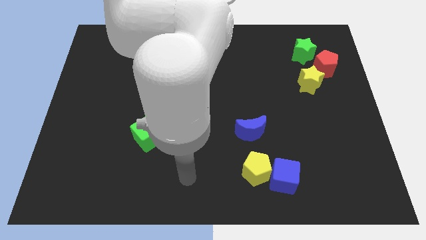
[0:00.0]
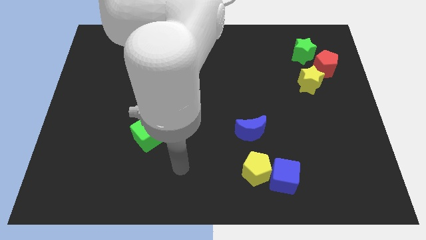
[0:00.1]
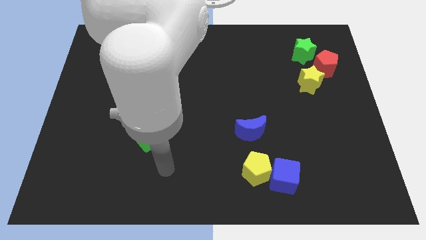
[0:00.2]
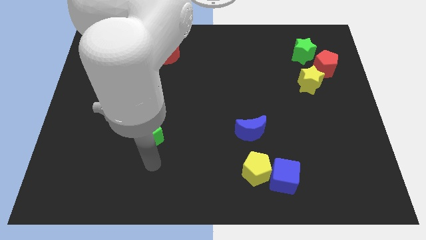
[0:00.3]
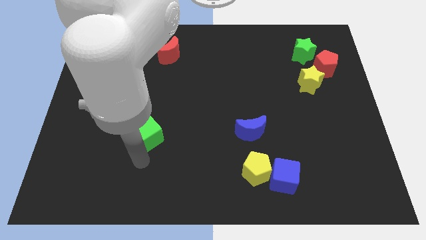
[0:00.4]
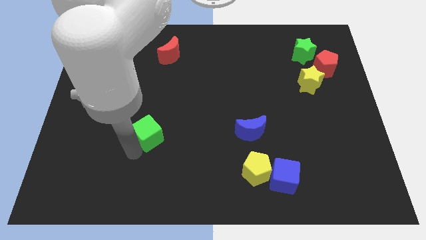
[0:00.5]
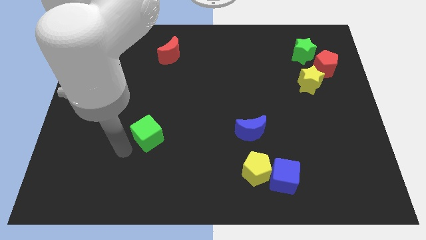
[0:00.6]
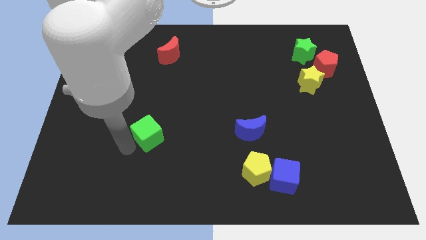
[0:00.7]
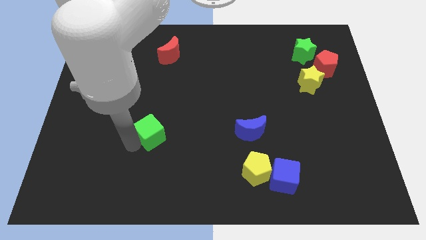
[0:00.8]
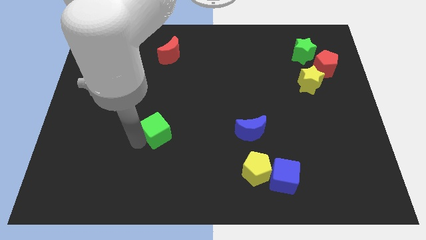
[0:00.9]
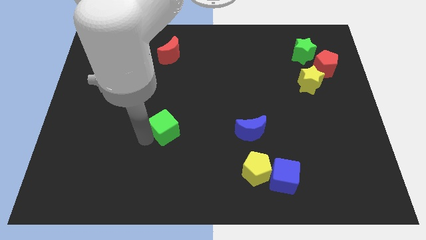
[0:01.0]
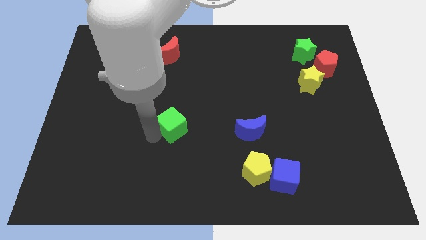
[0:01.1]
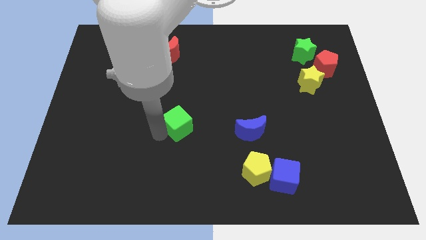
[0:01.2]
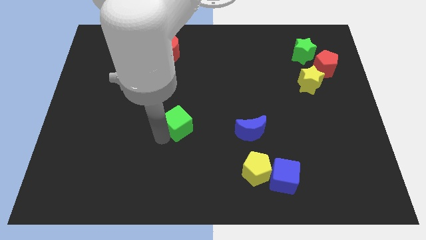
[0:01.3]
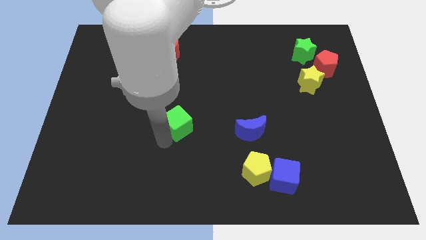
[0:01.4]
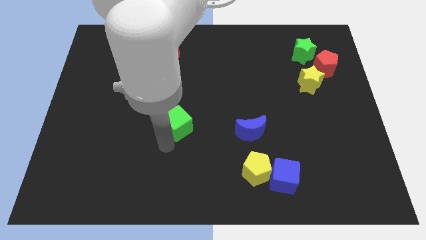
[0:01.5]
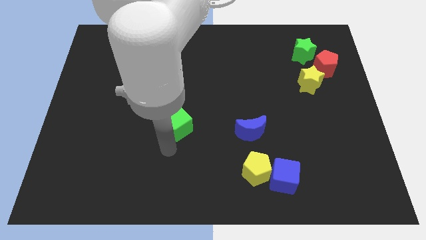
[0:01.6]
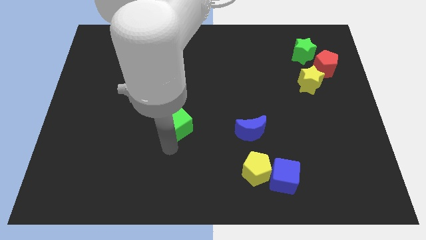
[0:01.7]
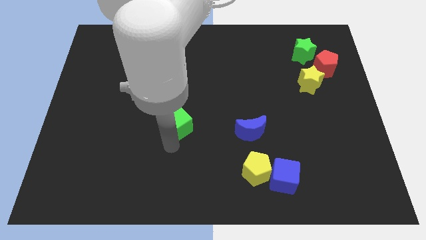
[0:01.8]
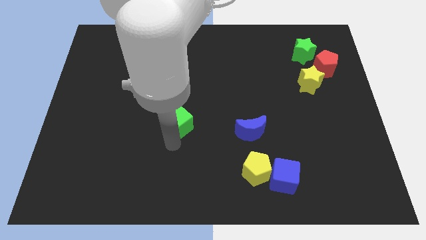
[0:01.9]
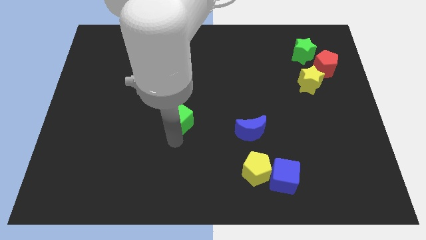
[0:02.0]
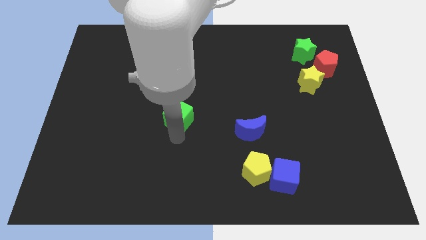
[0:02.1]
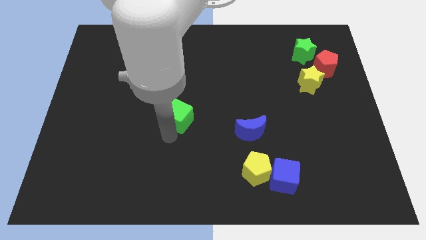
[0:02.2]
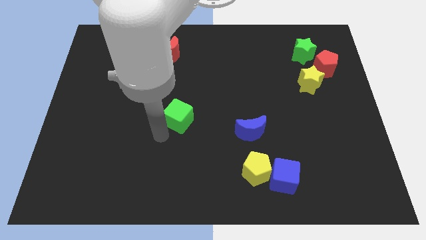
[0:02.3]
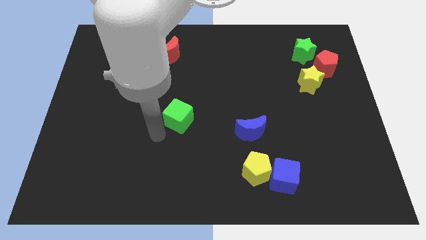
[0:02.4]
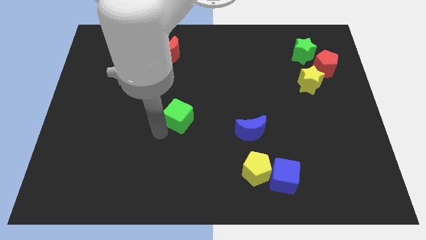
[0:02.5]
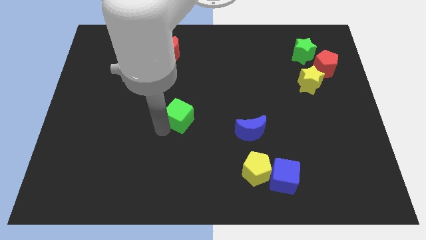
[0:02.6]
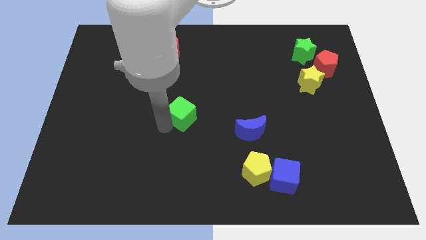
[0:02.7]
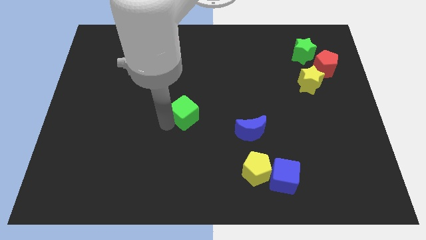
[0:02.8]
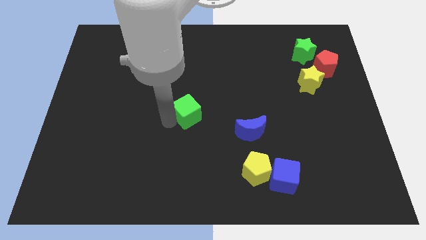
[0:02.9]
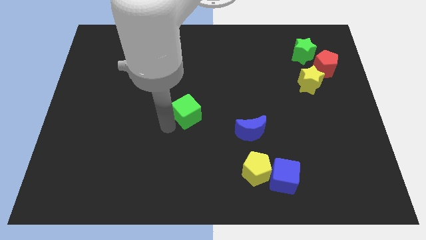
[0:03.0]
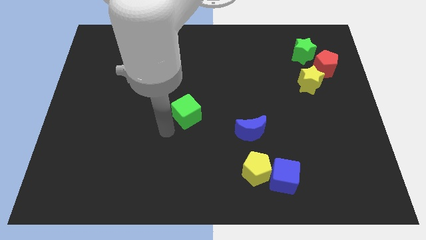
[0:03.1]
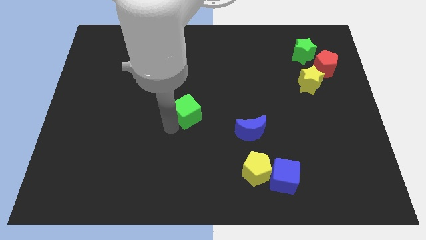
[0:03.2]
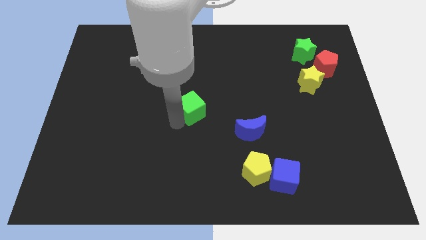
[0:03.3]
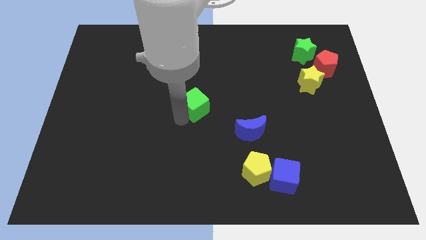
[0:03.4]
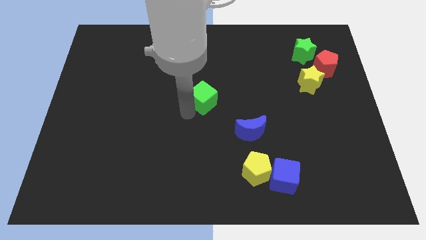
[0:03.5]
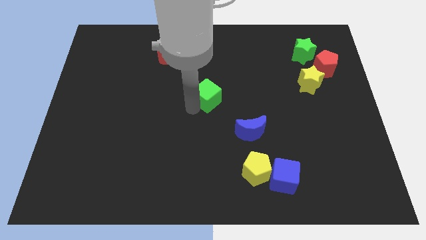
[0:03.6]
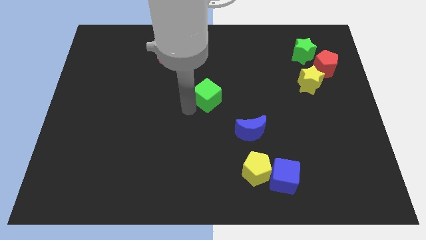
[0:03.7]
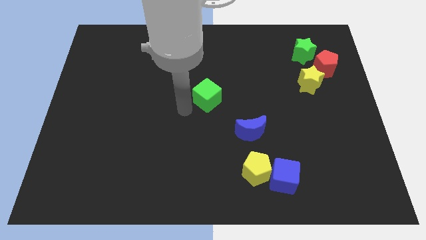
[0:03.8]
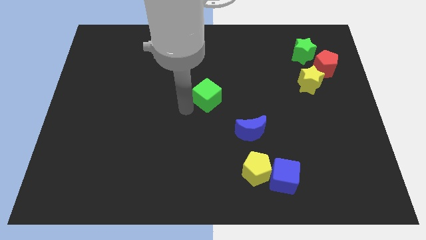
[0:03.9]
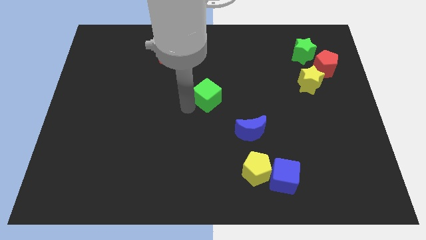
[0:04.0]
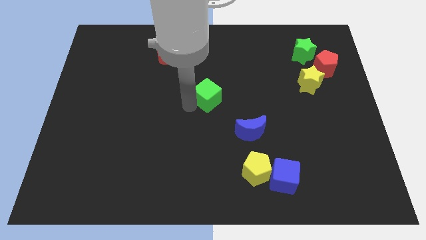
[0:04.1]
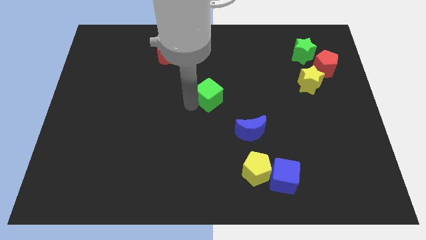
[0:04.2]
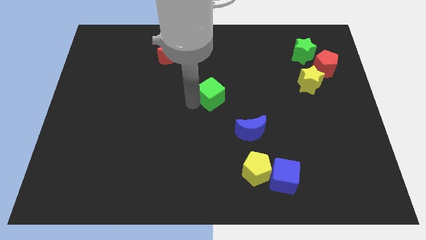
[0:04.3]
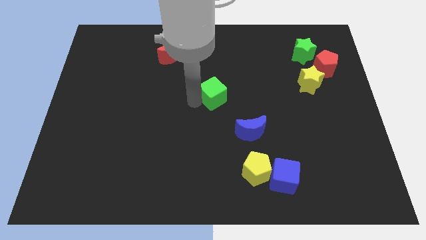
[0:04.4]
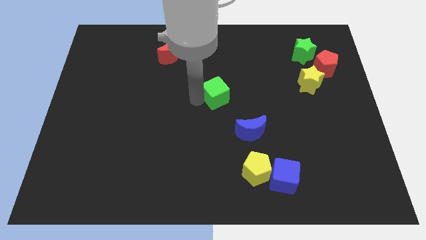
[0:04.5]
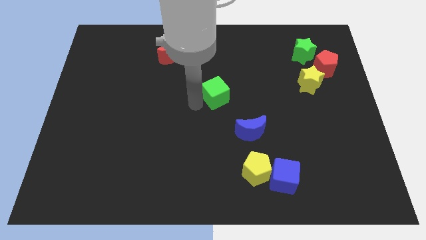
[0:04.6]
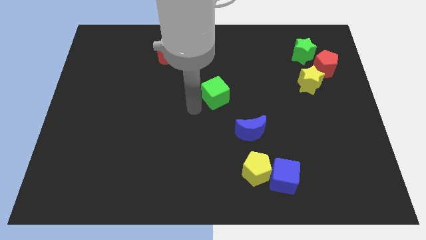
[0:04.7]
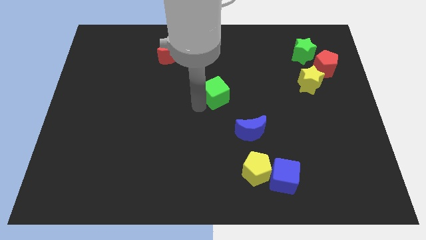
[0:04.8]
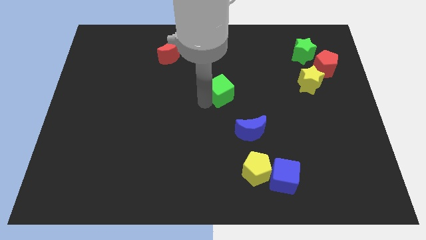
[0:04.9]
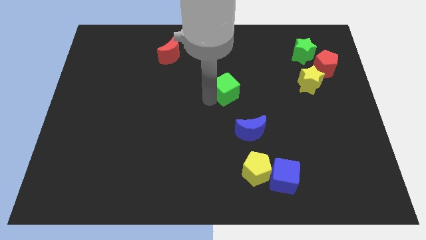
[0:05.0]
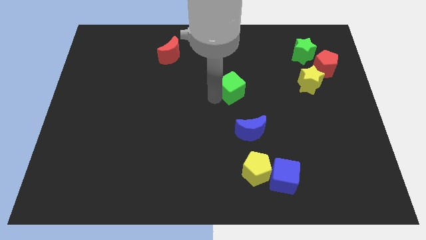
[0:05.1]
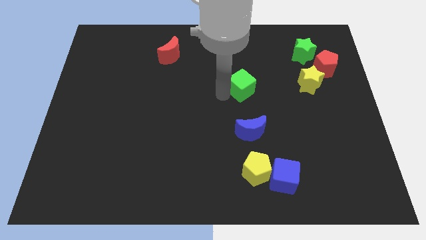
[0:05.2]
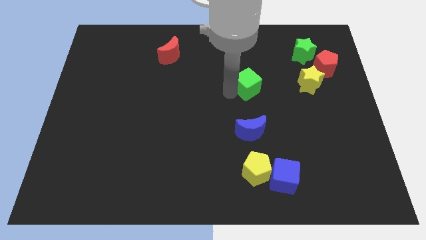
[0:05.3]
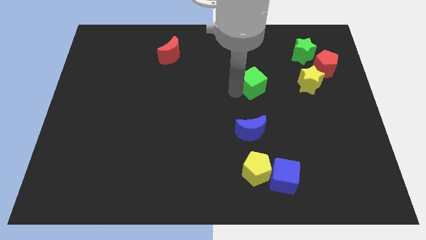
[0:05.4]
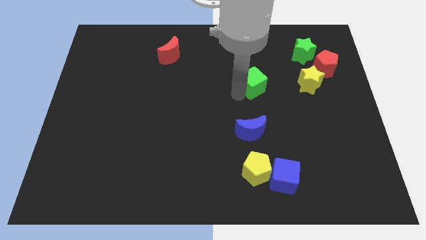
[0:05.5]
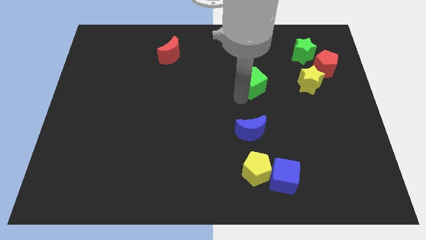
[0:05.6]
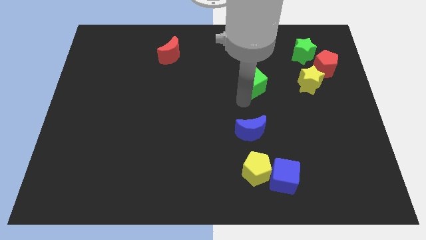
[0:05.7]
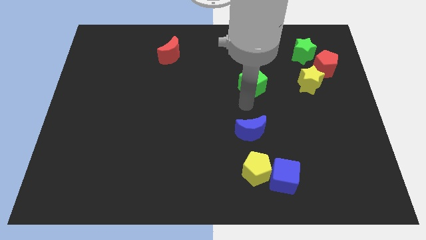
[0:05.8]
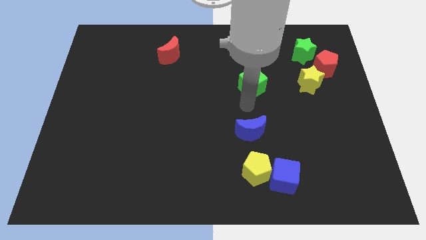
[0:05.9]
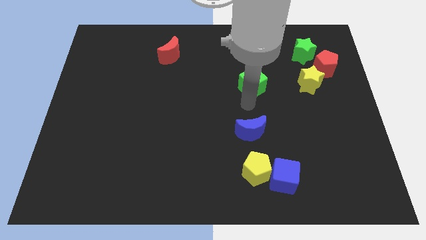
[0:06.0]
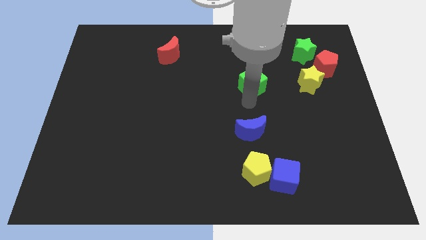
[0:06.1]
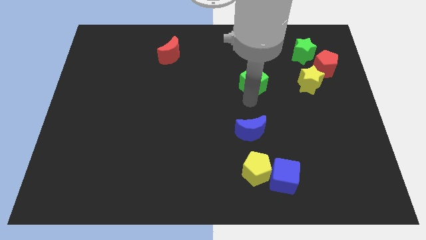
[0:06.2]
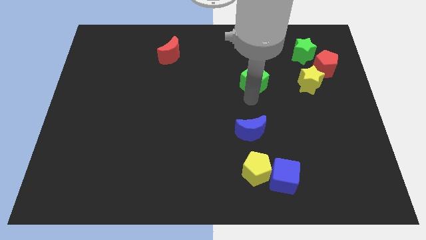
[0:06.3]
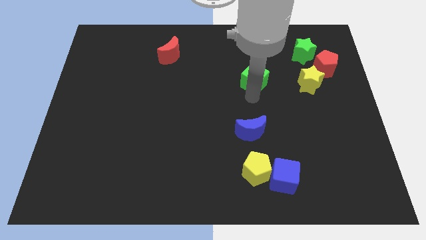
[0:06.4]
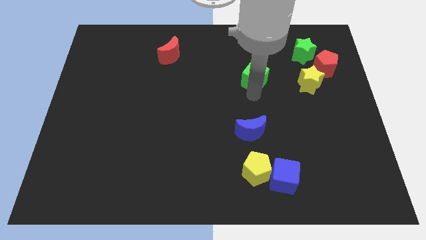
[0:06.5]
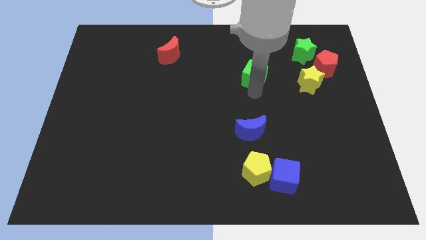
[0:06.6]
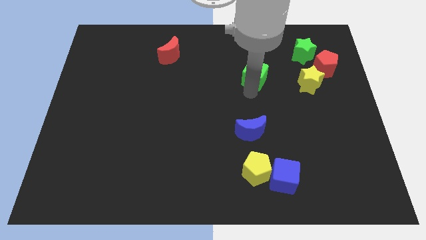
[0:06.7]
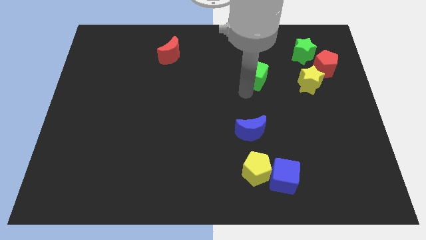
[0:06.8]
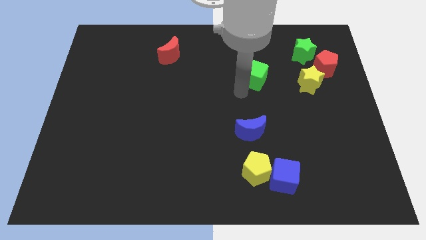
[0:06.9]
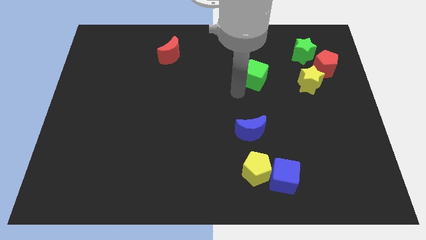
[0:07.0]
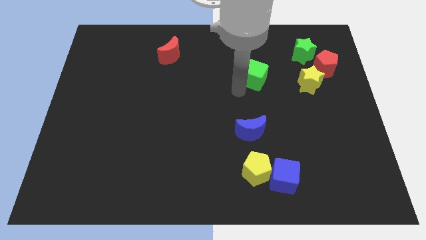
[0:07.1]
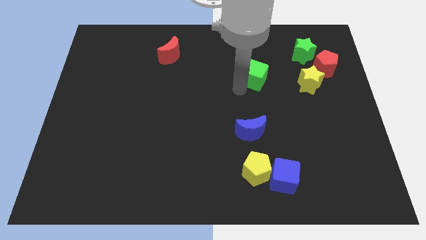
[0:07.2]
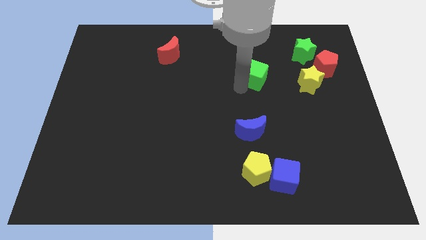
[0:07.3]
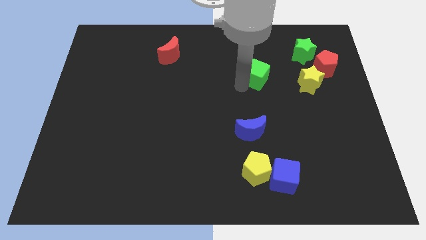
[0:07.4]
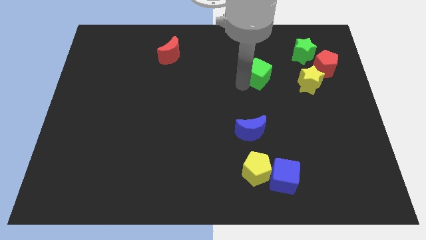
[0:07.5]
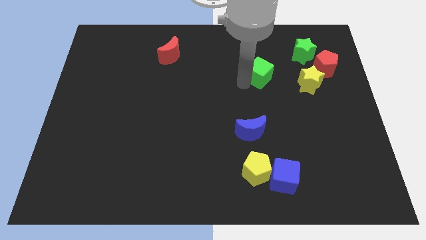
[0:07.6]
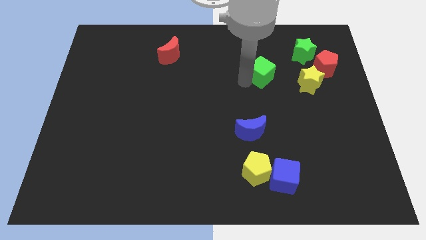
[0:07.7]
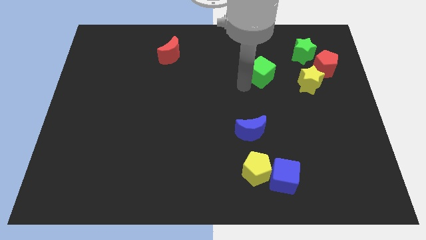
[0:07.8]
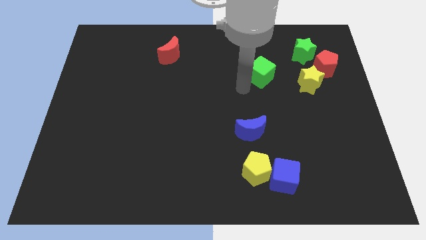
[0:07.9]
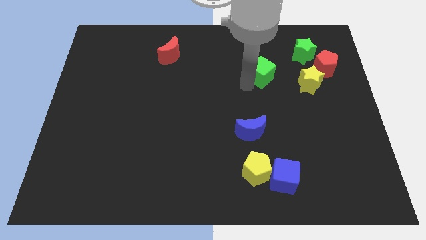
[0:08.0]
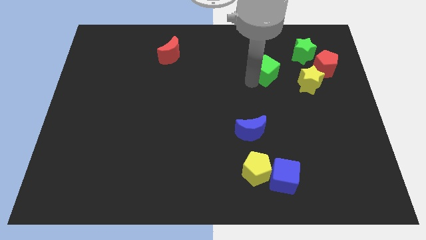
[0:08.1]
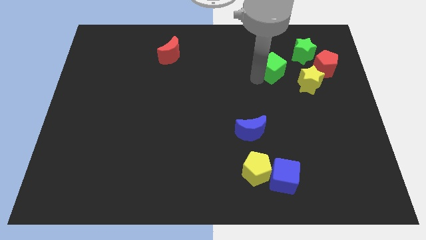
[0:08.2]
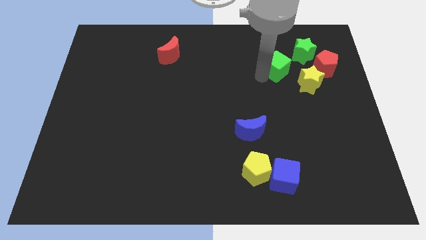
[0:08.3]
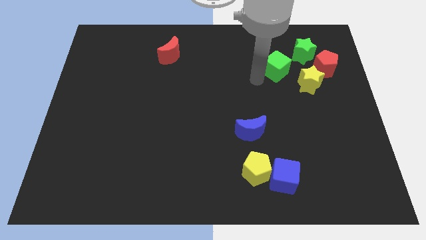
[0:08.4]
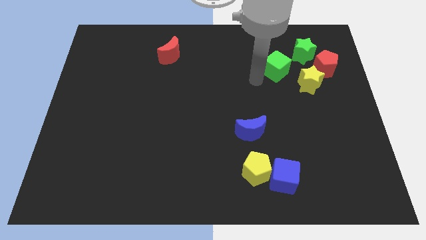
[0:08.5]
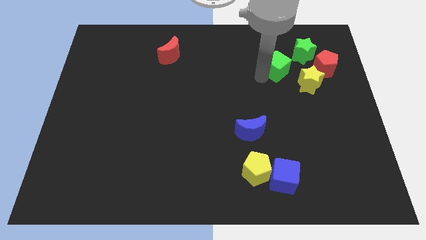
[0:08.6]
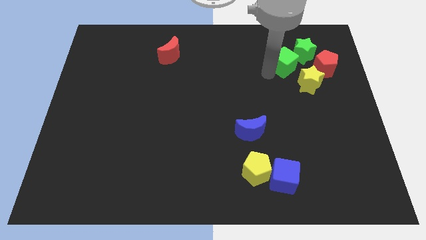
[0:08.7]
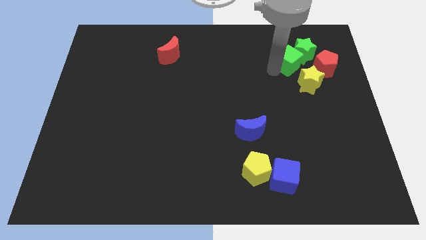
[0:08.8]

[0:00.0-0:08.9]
slide the green cube towards the green star
